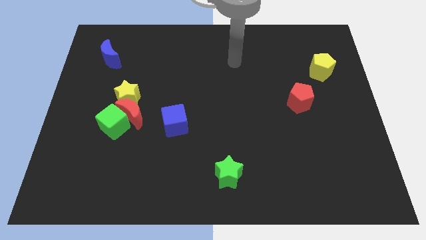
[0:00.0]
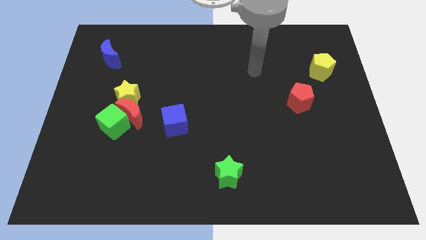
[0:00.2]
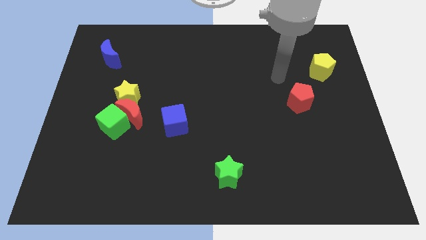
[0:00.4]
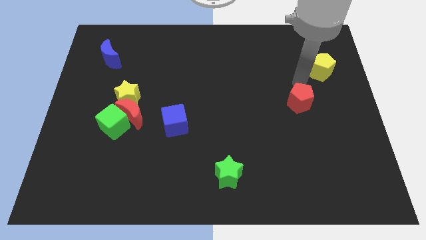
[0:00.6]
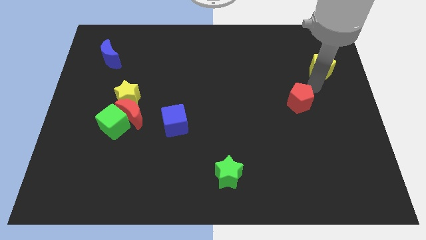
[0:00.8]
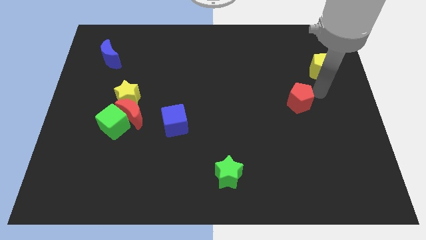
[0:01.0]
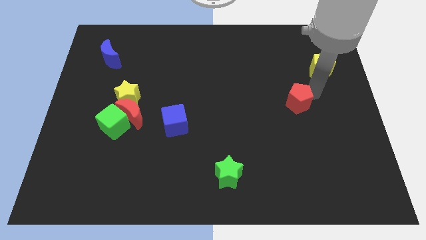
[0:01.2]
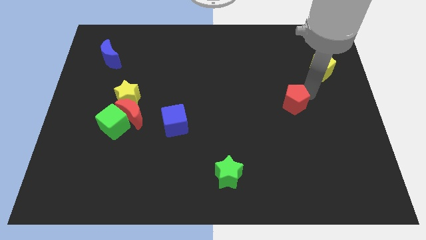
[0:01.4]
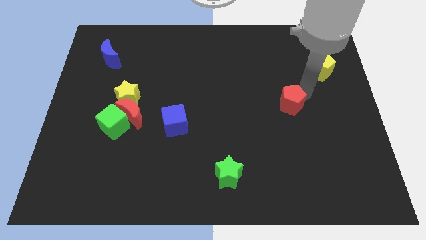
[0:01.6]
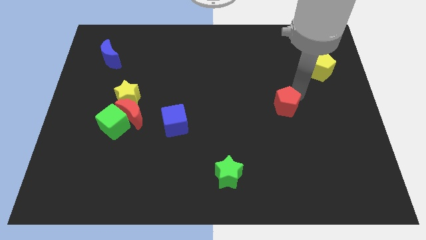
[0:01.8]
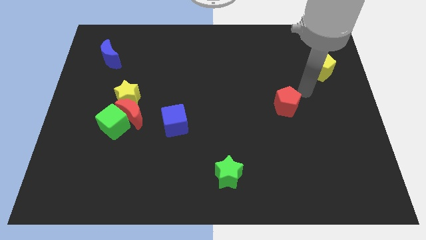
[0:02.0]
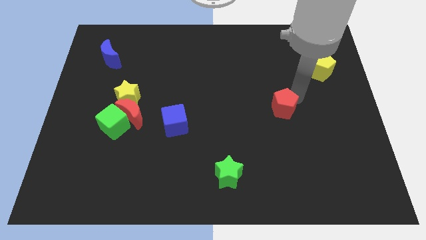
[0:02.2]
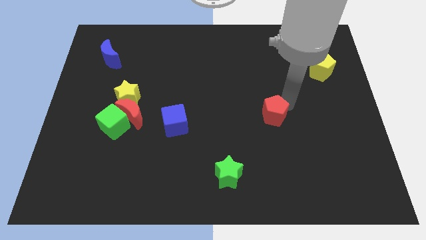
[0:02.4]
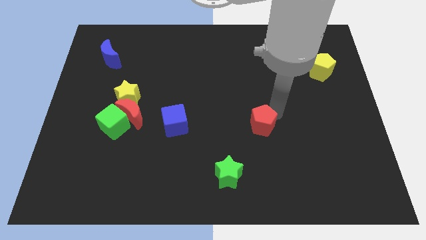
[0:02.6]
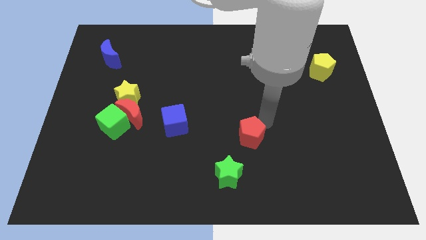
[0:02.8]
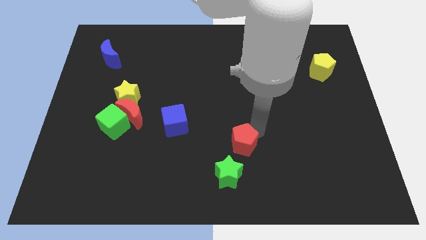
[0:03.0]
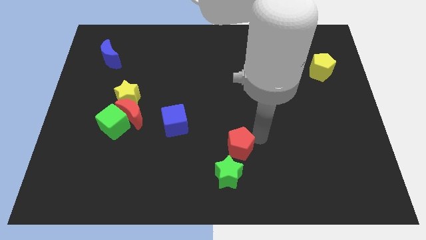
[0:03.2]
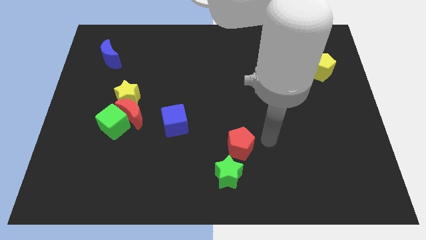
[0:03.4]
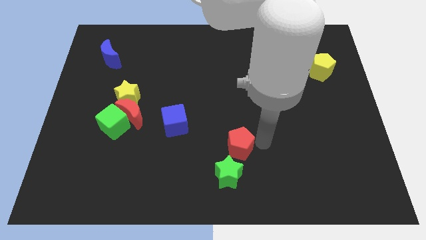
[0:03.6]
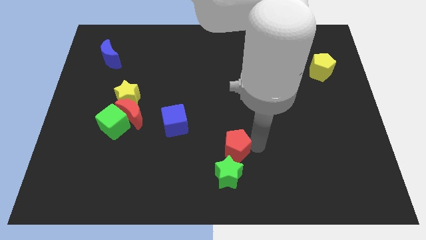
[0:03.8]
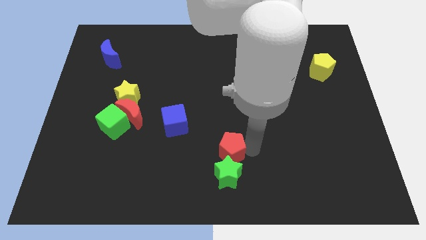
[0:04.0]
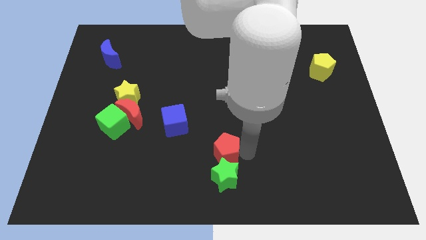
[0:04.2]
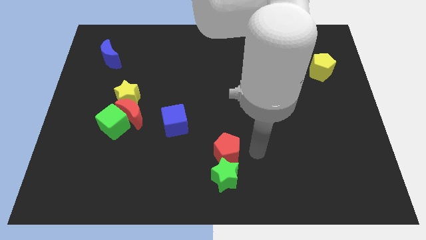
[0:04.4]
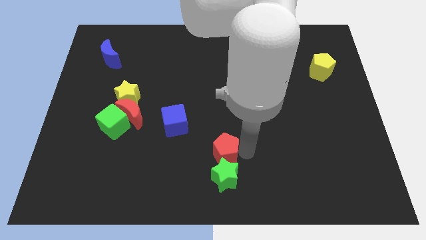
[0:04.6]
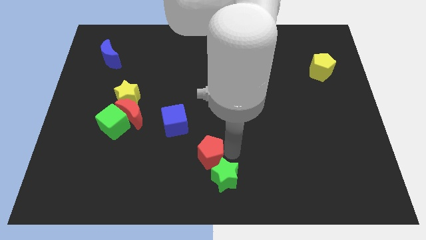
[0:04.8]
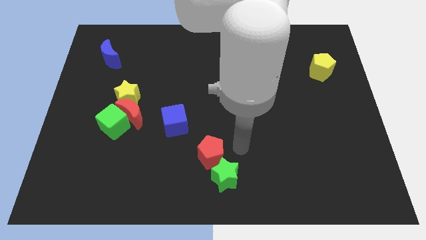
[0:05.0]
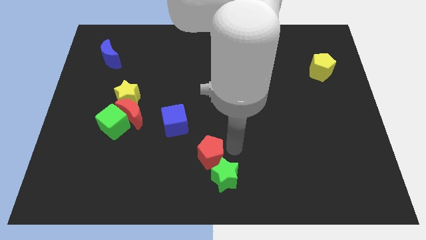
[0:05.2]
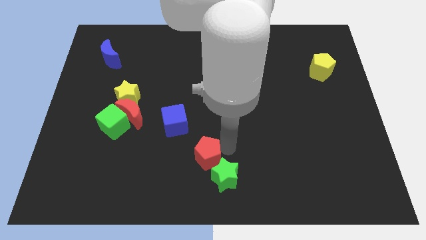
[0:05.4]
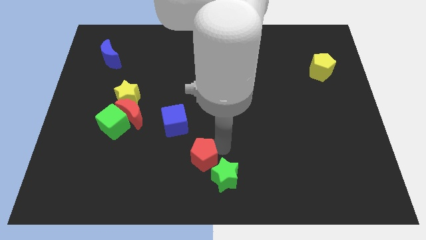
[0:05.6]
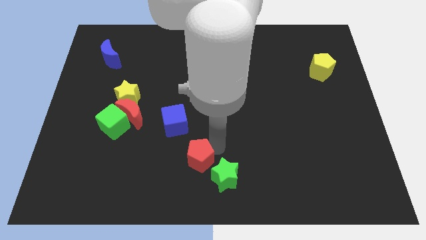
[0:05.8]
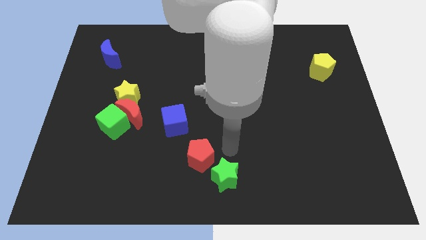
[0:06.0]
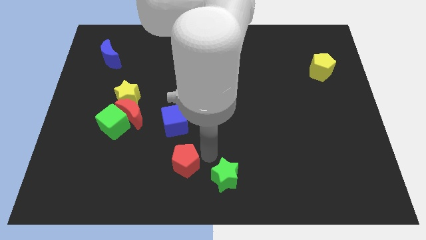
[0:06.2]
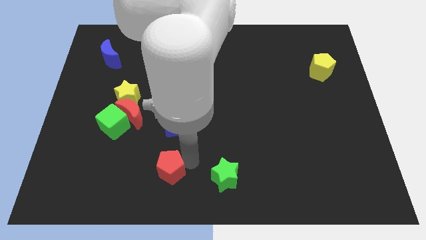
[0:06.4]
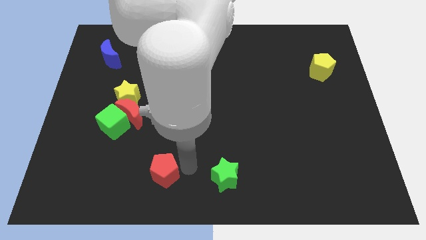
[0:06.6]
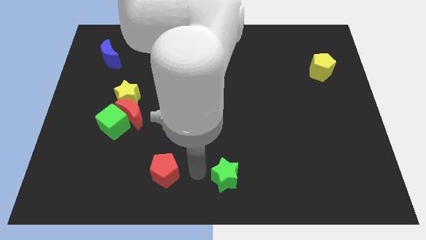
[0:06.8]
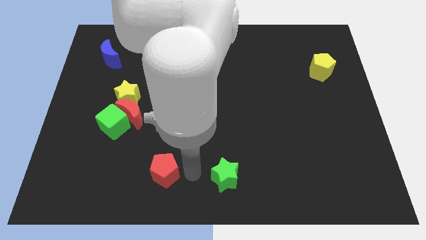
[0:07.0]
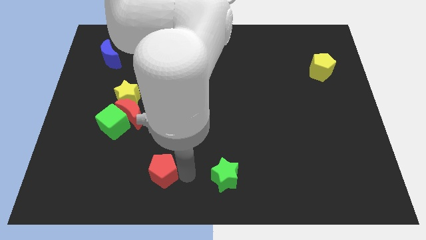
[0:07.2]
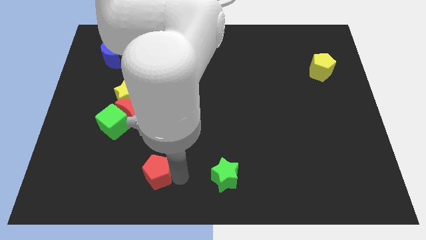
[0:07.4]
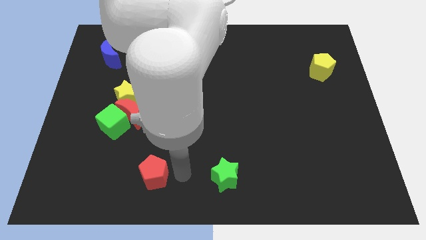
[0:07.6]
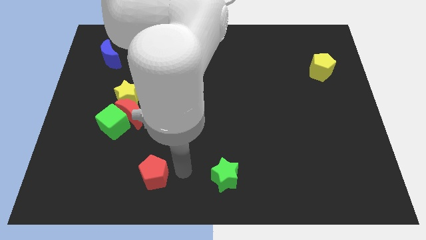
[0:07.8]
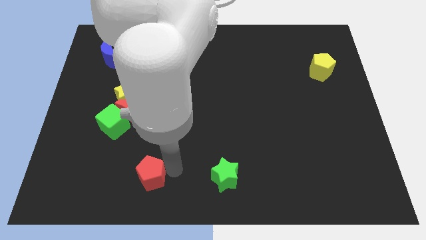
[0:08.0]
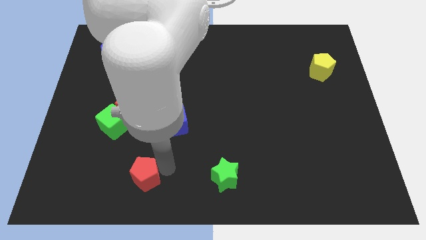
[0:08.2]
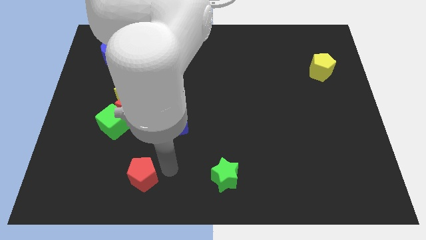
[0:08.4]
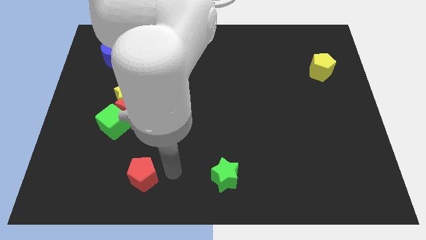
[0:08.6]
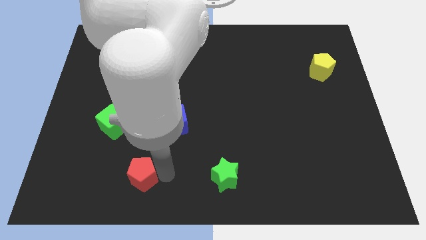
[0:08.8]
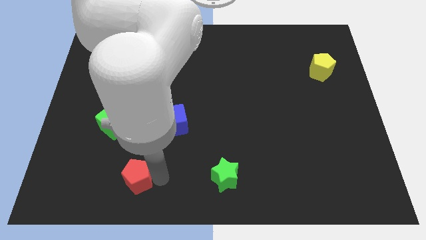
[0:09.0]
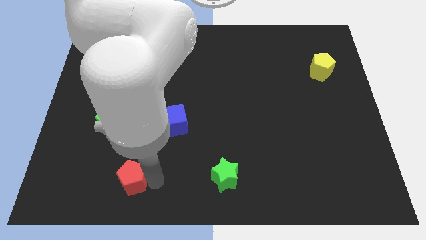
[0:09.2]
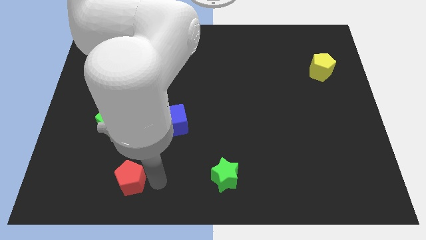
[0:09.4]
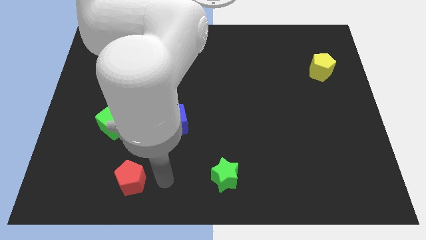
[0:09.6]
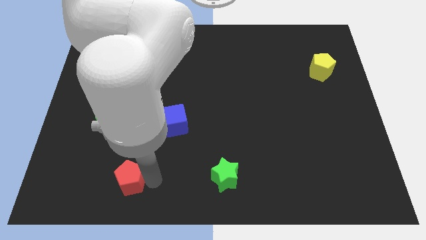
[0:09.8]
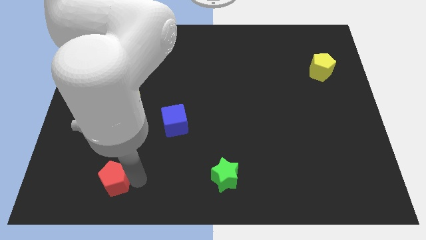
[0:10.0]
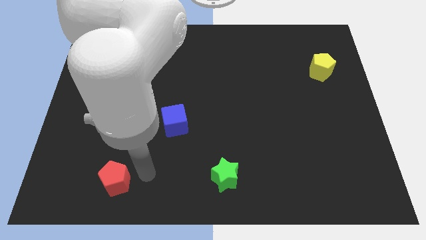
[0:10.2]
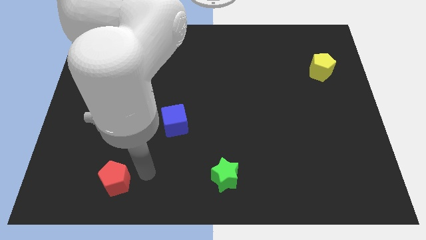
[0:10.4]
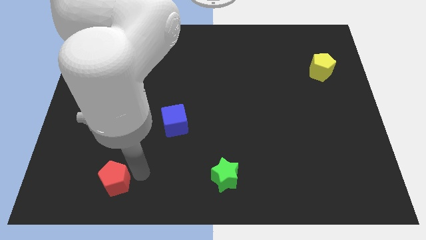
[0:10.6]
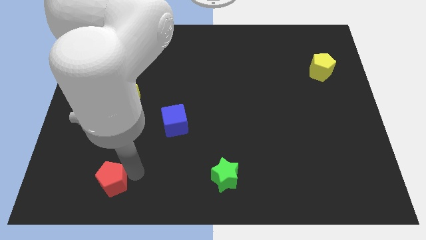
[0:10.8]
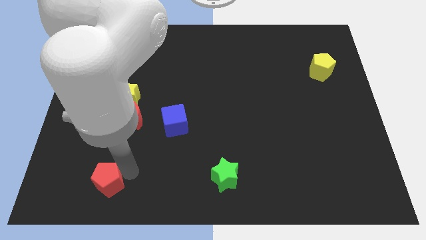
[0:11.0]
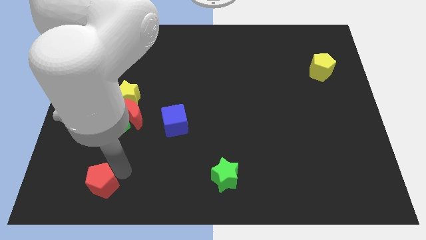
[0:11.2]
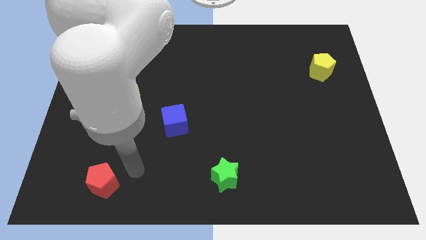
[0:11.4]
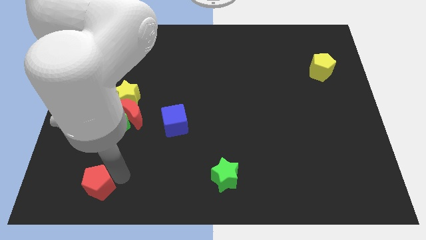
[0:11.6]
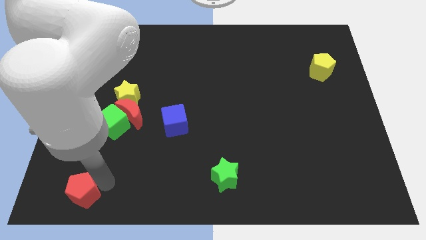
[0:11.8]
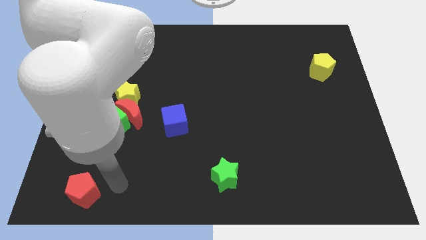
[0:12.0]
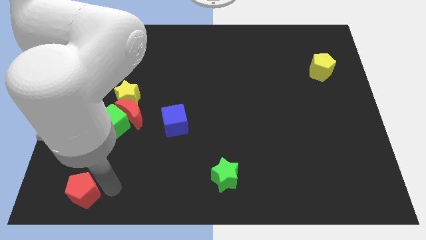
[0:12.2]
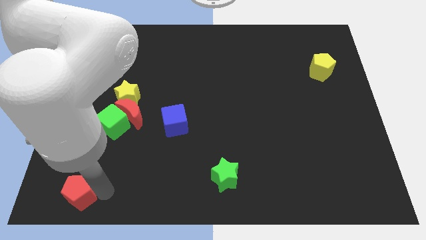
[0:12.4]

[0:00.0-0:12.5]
move the red pentagon to the bottom left of the board
